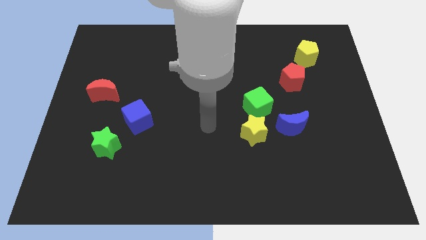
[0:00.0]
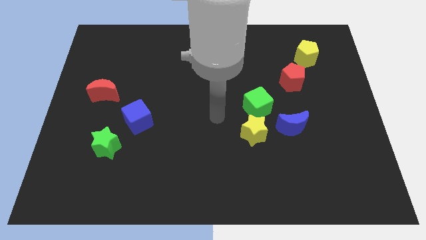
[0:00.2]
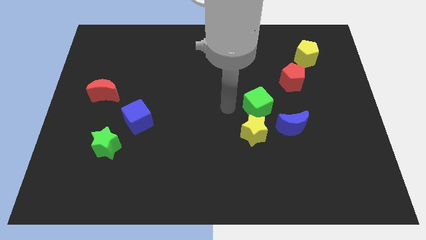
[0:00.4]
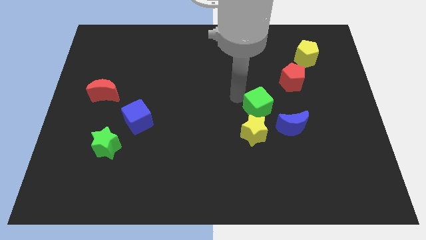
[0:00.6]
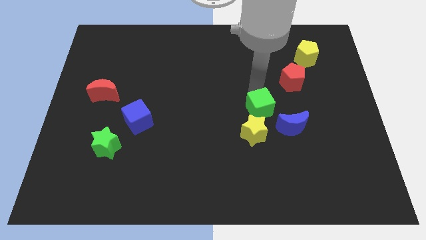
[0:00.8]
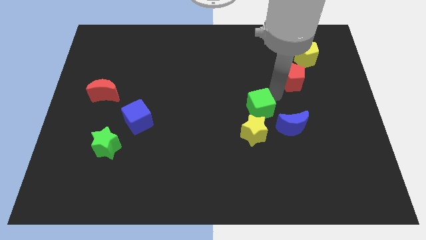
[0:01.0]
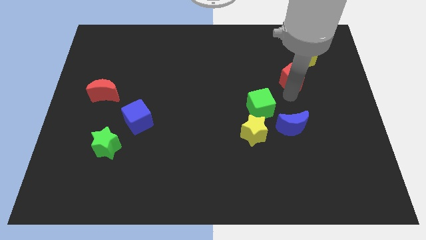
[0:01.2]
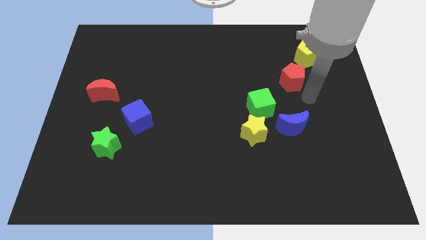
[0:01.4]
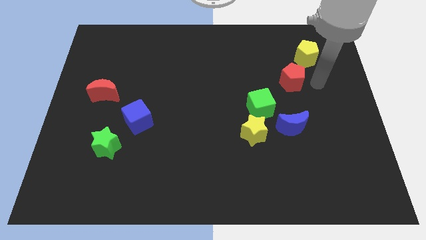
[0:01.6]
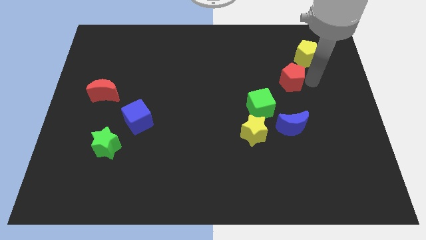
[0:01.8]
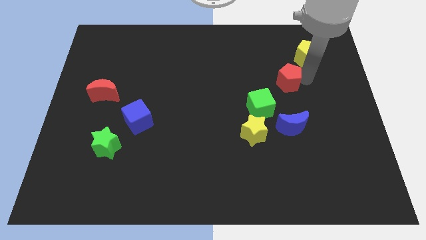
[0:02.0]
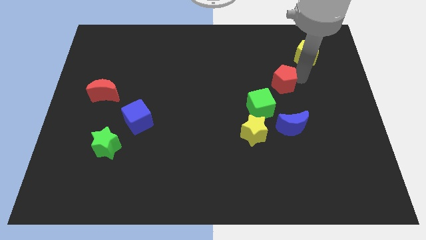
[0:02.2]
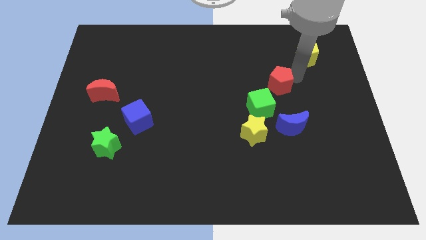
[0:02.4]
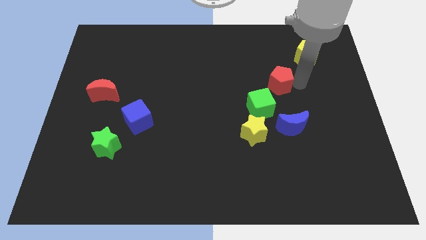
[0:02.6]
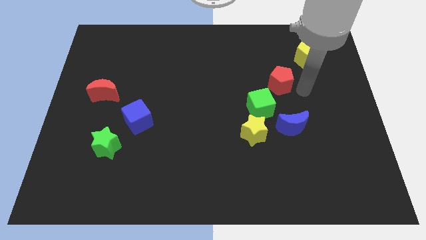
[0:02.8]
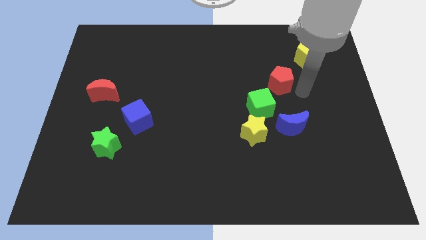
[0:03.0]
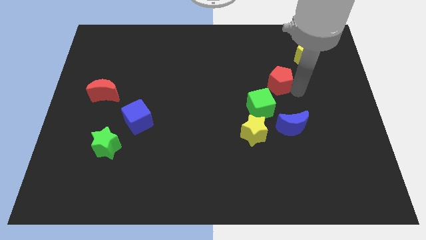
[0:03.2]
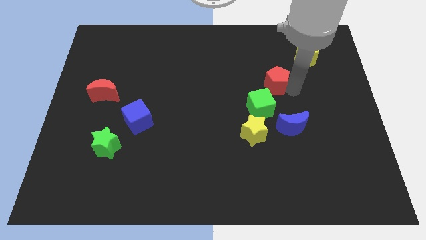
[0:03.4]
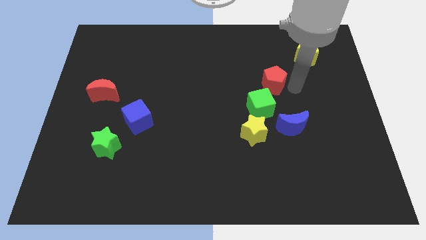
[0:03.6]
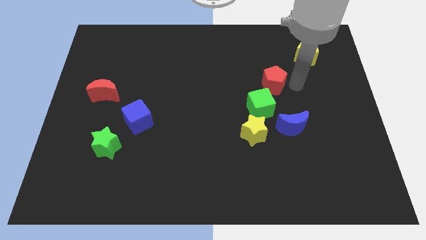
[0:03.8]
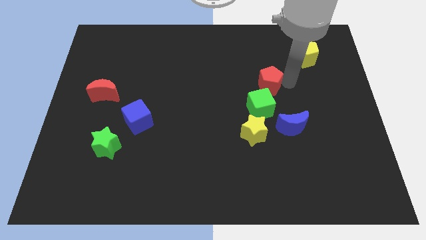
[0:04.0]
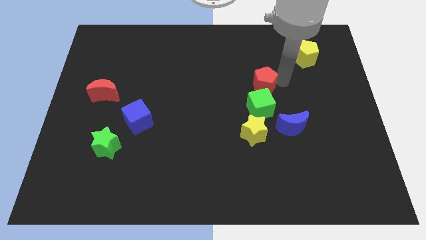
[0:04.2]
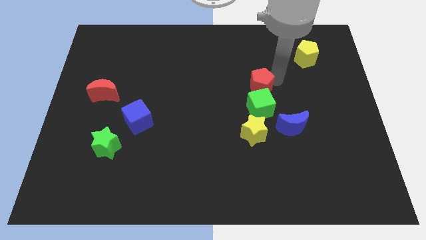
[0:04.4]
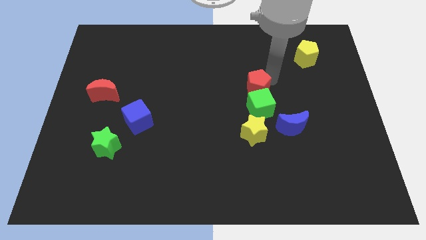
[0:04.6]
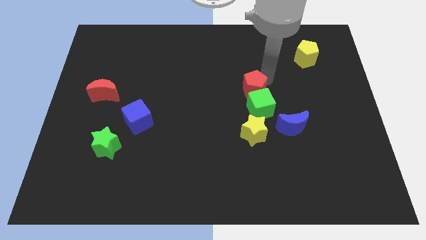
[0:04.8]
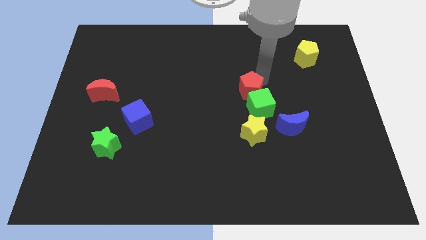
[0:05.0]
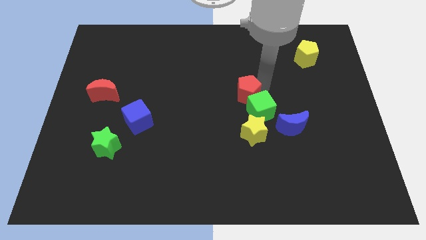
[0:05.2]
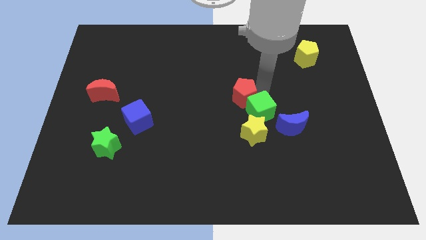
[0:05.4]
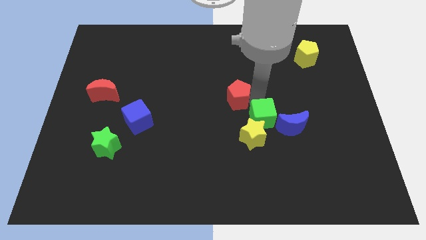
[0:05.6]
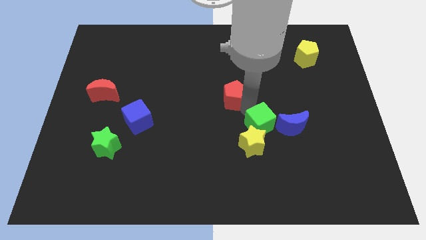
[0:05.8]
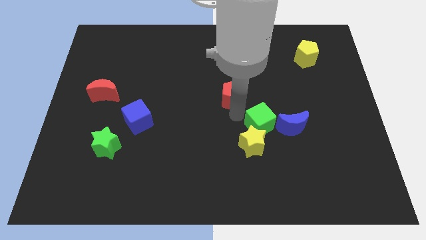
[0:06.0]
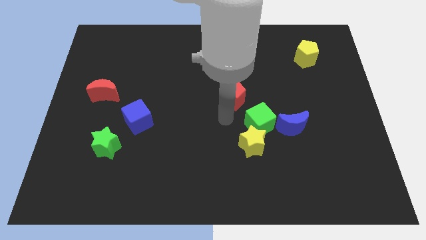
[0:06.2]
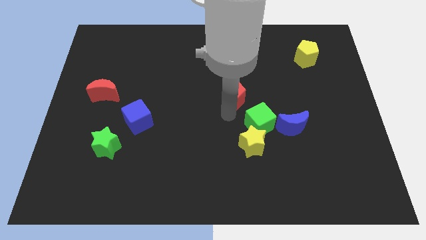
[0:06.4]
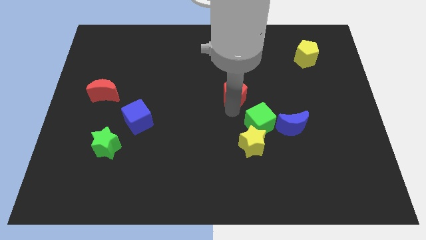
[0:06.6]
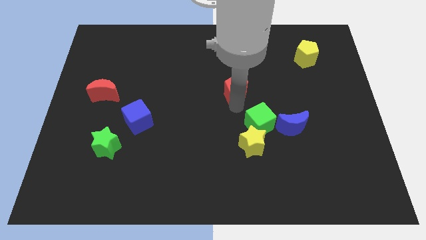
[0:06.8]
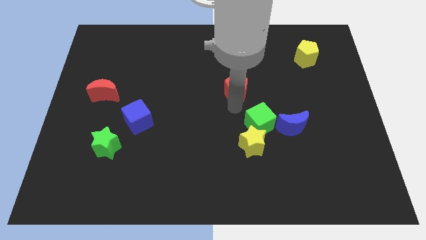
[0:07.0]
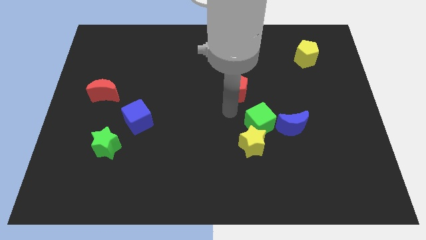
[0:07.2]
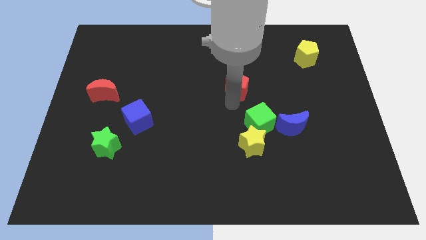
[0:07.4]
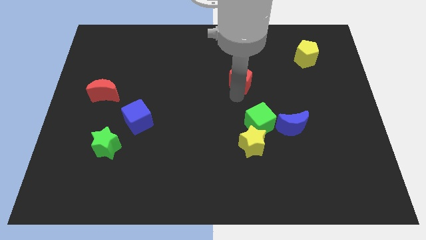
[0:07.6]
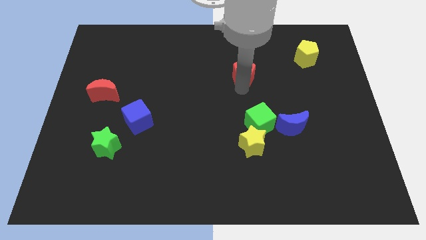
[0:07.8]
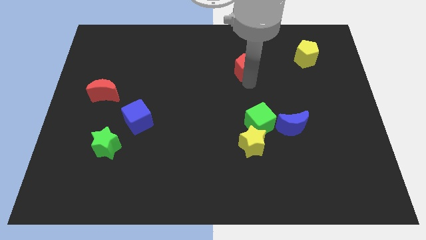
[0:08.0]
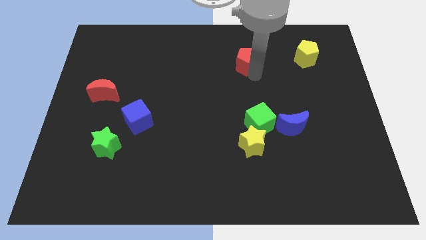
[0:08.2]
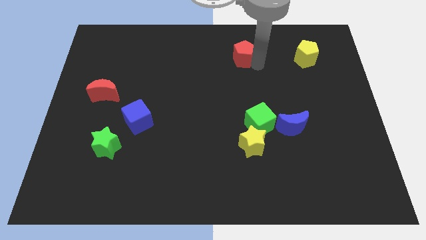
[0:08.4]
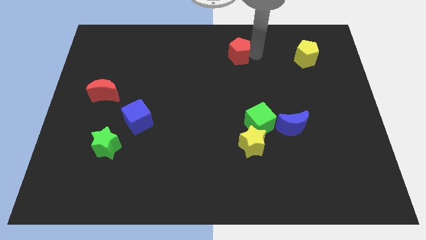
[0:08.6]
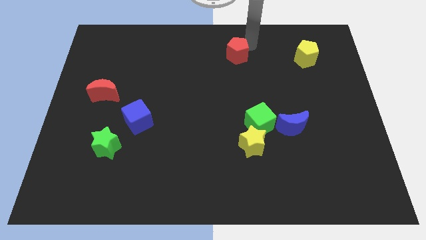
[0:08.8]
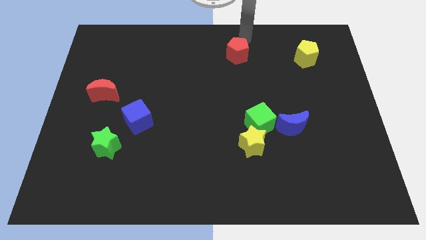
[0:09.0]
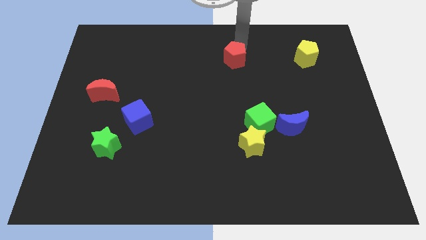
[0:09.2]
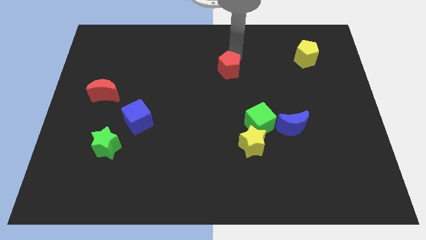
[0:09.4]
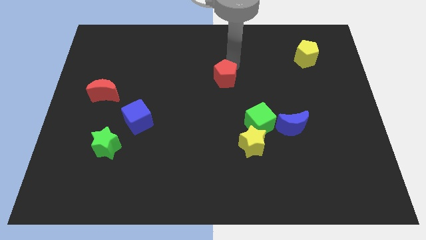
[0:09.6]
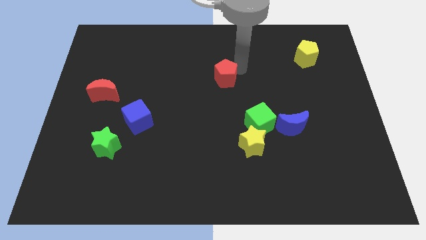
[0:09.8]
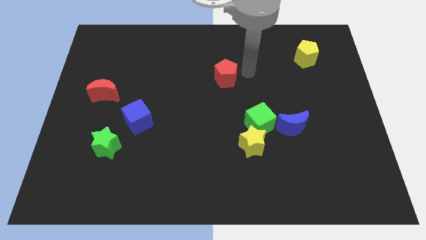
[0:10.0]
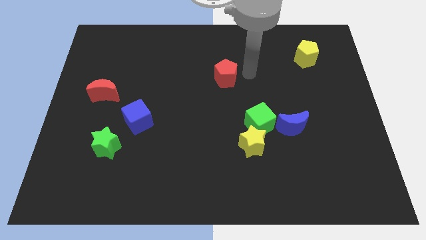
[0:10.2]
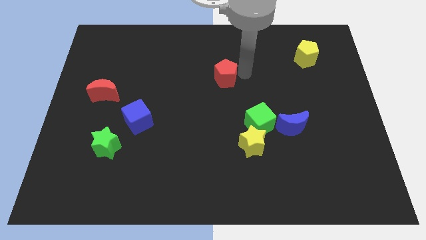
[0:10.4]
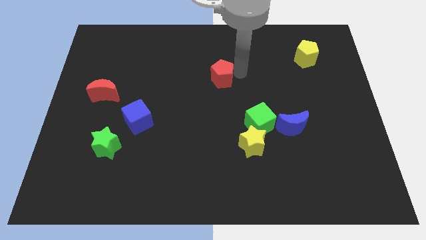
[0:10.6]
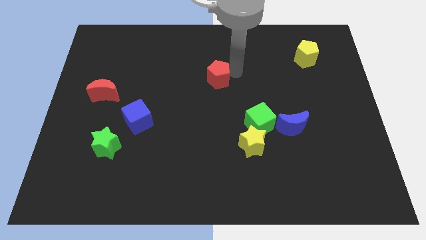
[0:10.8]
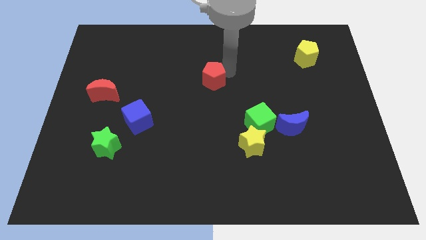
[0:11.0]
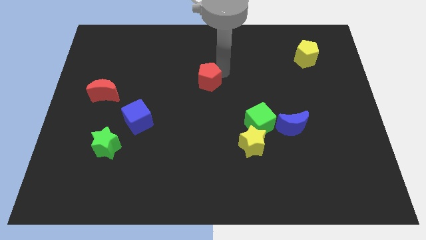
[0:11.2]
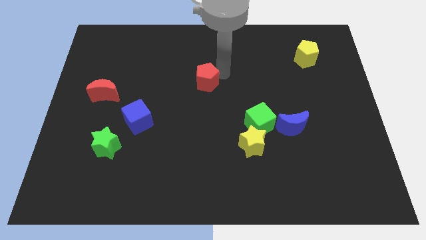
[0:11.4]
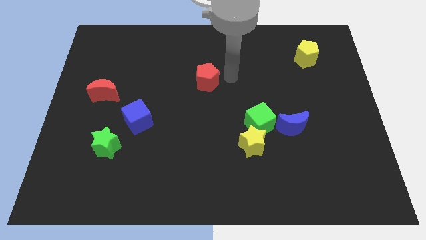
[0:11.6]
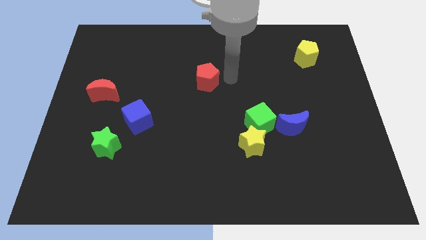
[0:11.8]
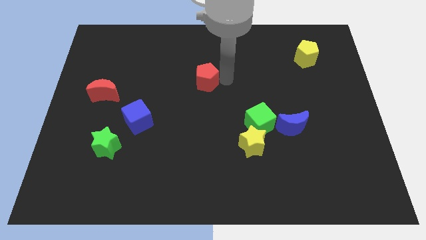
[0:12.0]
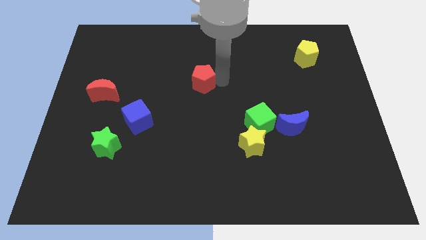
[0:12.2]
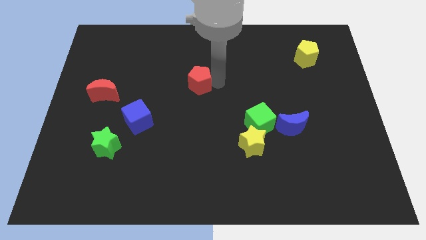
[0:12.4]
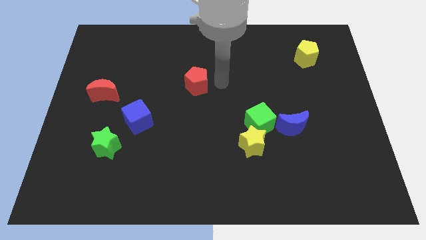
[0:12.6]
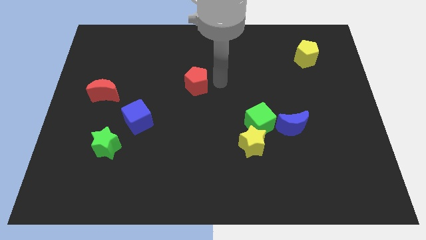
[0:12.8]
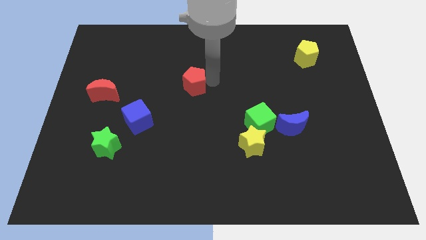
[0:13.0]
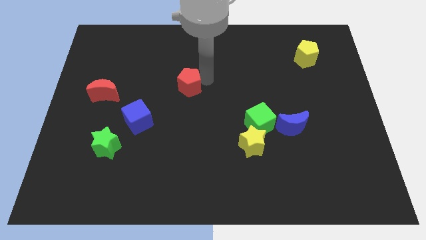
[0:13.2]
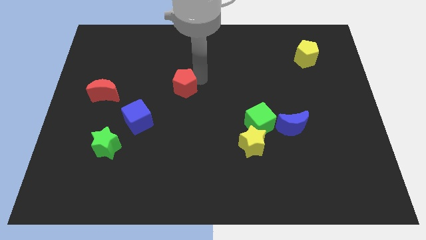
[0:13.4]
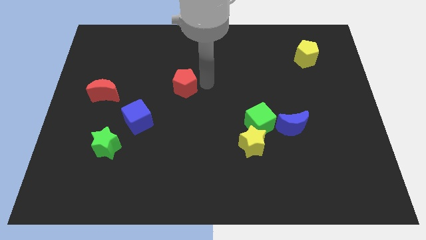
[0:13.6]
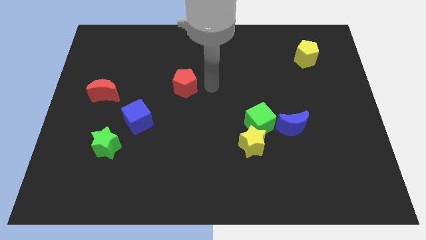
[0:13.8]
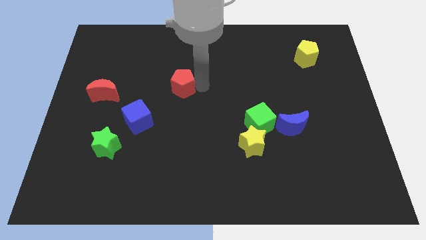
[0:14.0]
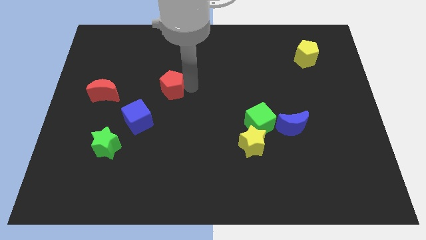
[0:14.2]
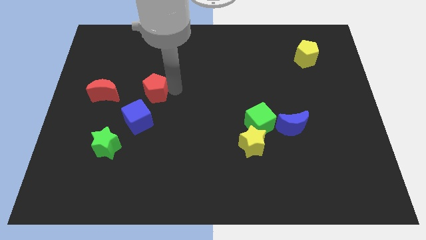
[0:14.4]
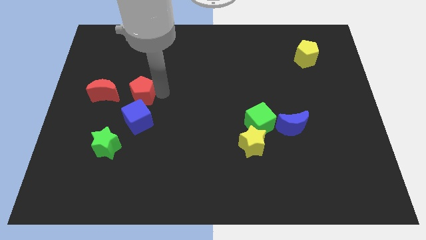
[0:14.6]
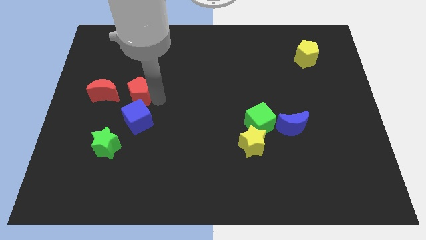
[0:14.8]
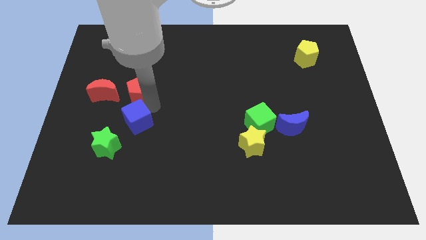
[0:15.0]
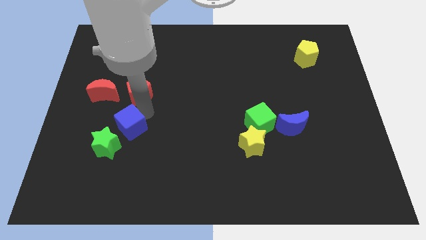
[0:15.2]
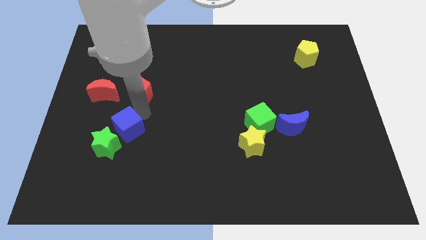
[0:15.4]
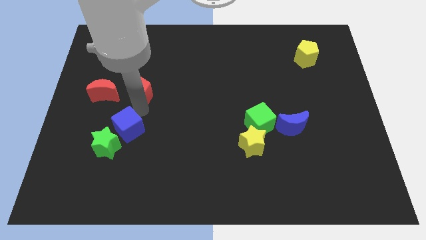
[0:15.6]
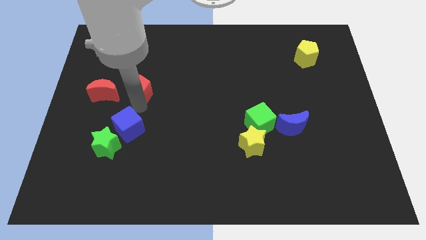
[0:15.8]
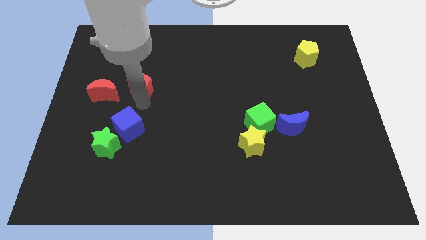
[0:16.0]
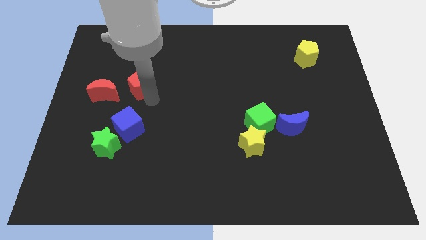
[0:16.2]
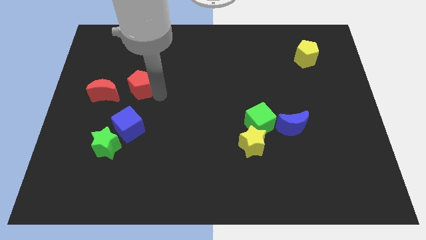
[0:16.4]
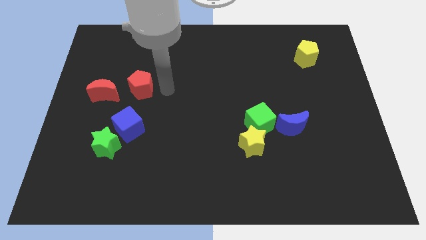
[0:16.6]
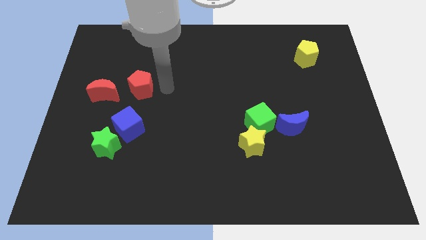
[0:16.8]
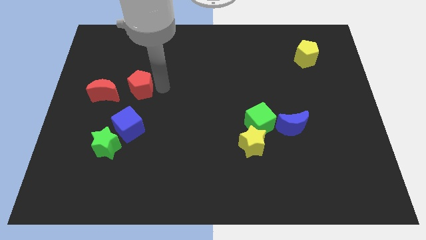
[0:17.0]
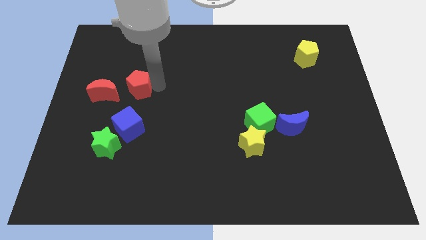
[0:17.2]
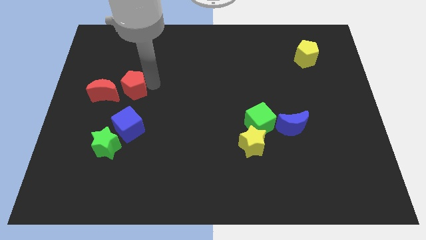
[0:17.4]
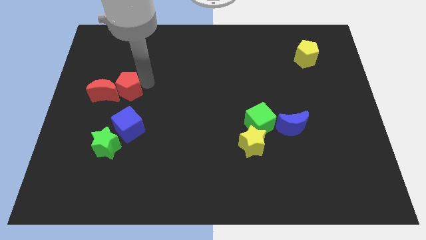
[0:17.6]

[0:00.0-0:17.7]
slide the red pentagon to the red moon
